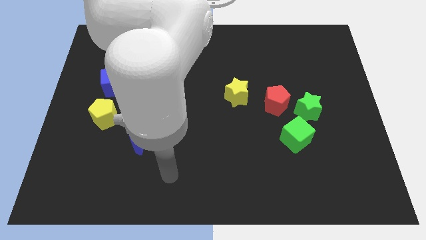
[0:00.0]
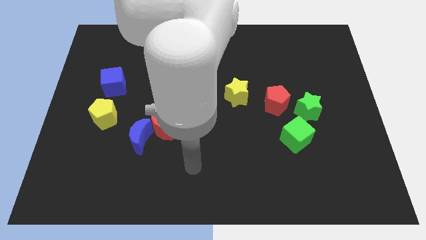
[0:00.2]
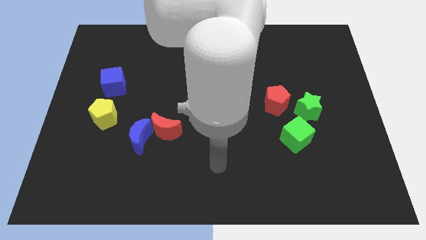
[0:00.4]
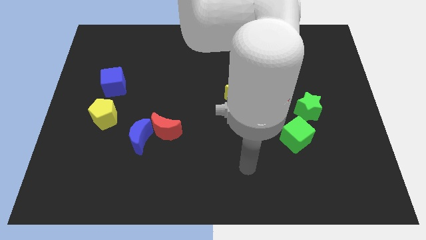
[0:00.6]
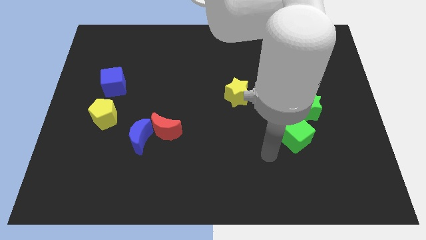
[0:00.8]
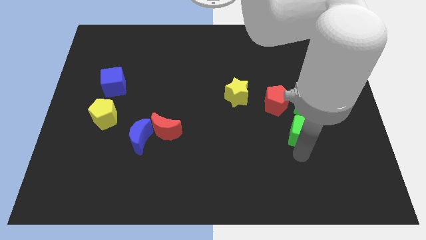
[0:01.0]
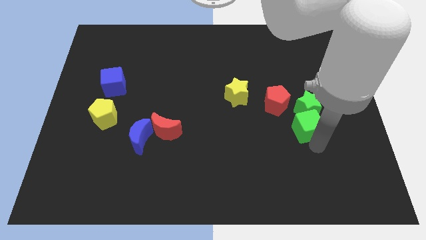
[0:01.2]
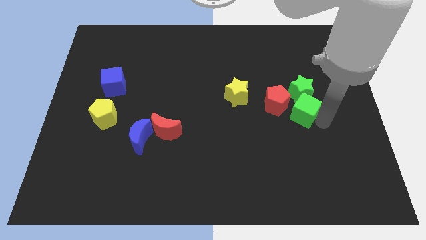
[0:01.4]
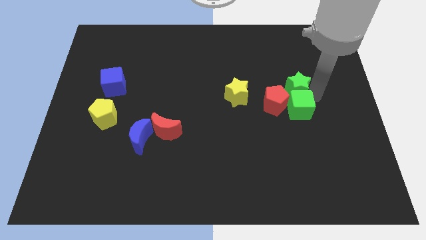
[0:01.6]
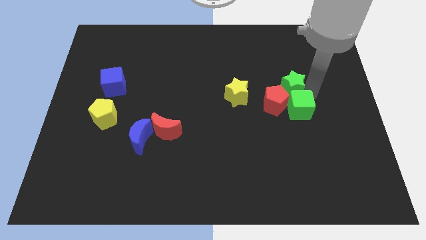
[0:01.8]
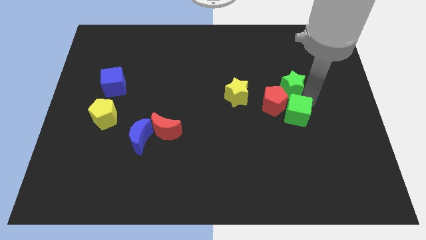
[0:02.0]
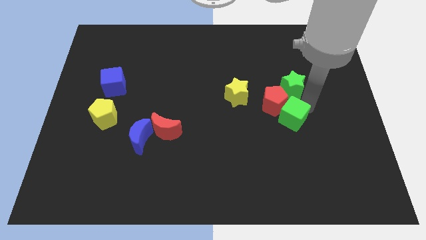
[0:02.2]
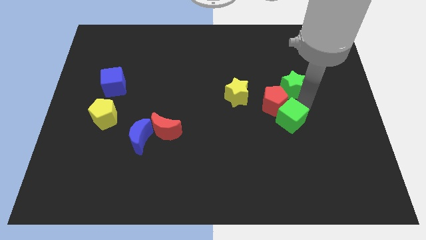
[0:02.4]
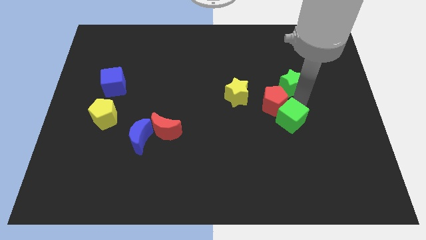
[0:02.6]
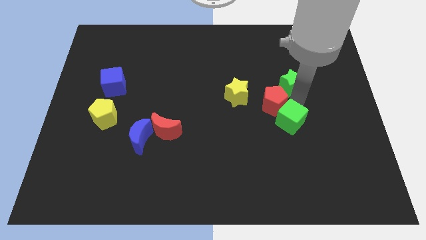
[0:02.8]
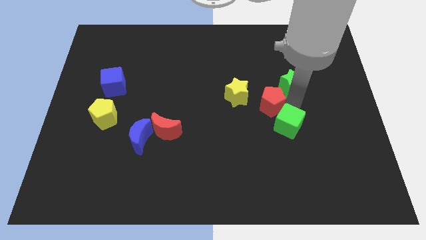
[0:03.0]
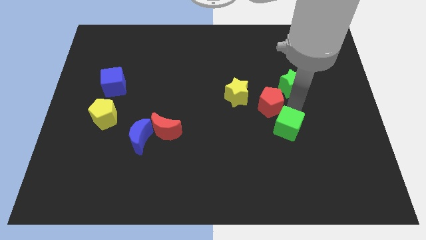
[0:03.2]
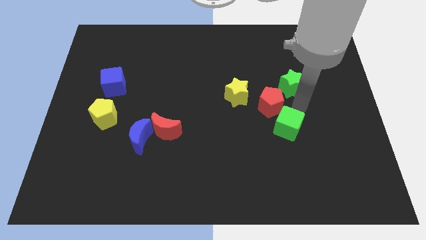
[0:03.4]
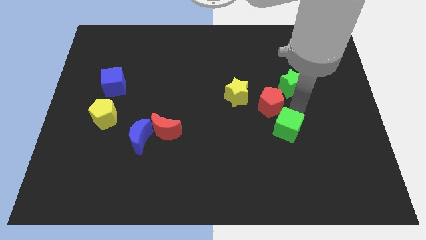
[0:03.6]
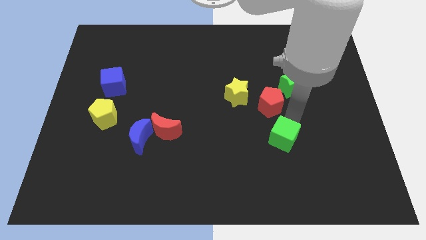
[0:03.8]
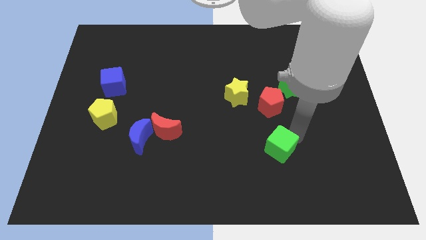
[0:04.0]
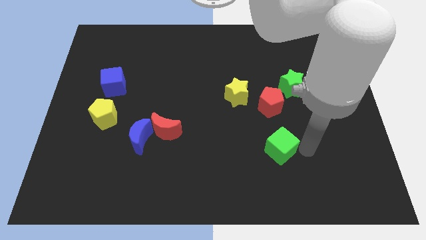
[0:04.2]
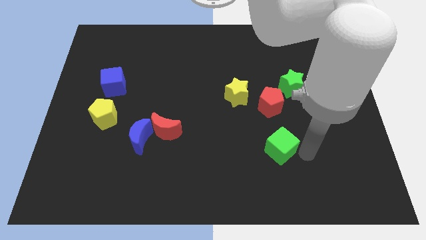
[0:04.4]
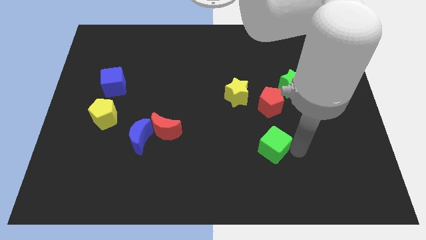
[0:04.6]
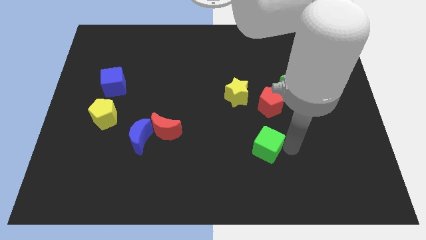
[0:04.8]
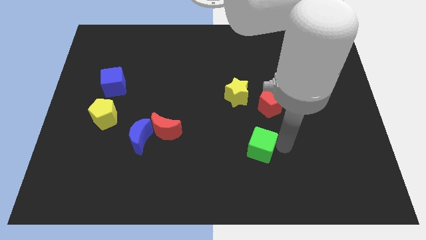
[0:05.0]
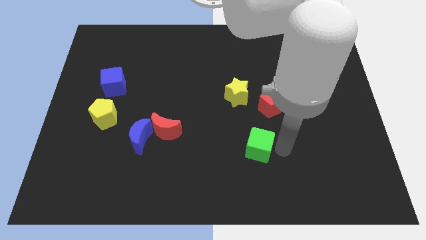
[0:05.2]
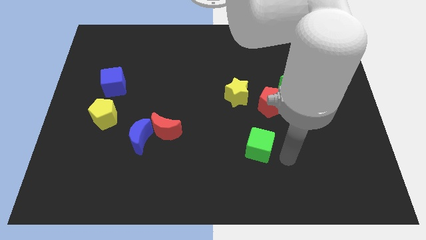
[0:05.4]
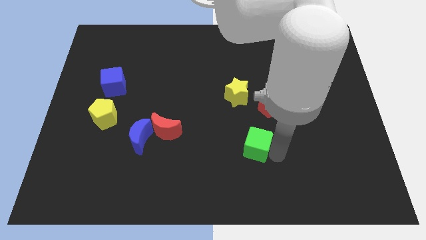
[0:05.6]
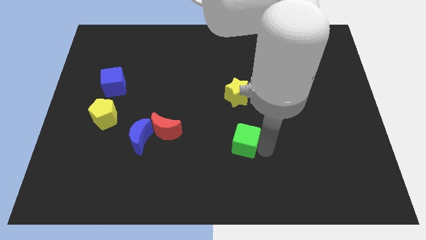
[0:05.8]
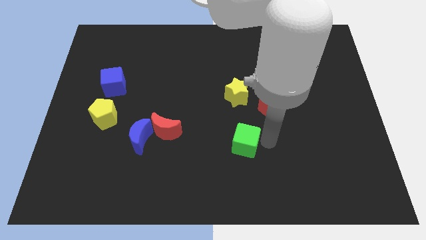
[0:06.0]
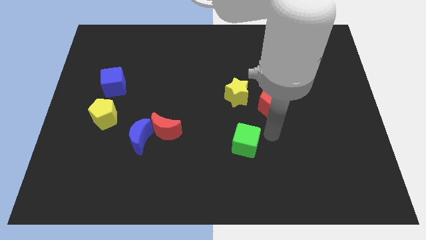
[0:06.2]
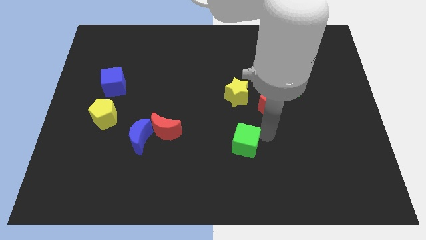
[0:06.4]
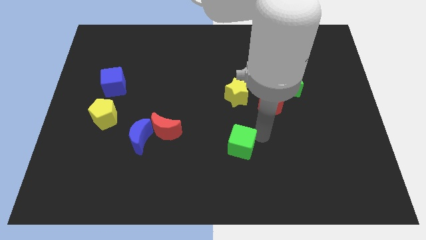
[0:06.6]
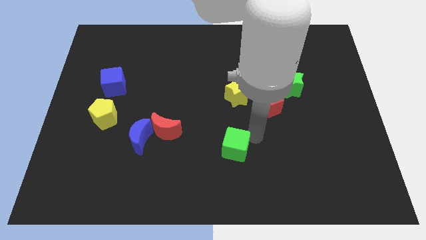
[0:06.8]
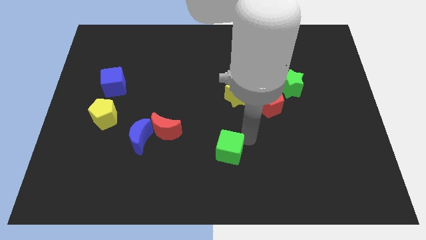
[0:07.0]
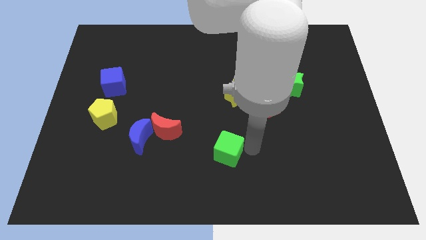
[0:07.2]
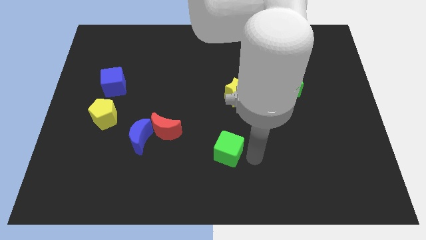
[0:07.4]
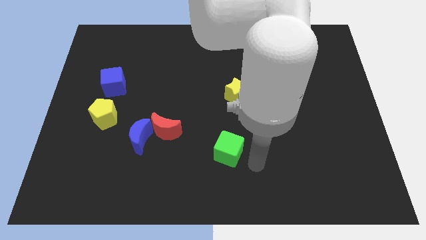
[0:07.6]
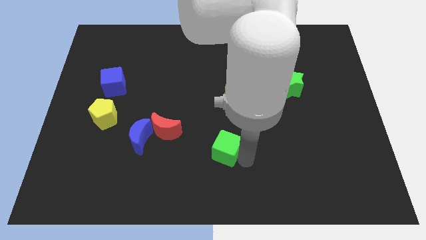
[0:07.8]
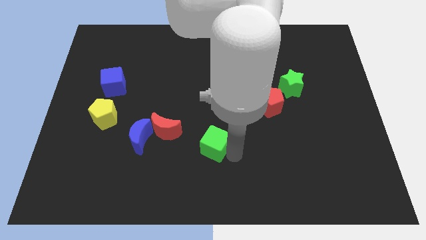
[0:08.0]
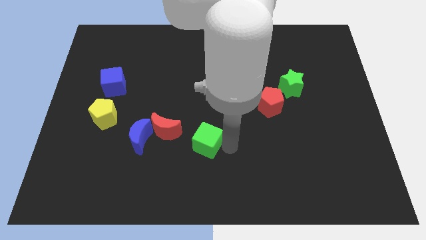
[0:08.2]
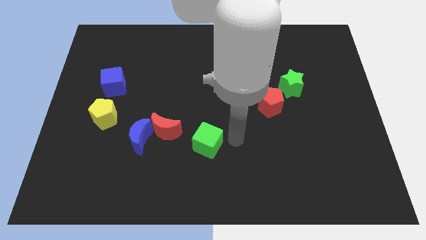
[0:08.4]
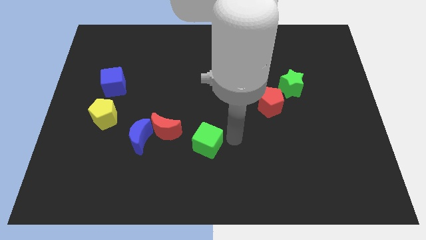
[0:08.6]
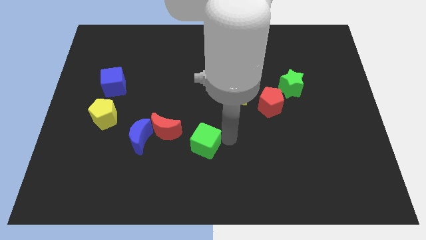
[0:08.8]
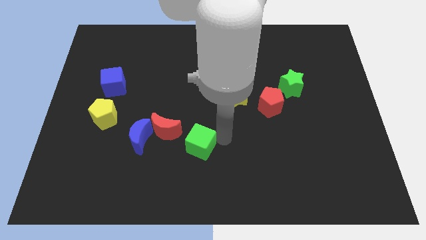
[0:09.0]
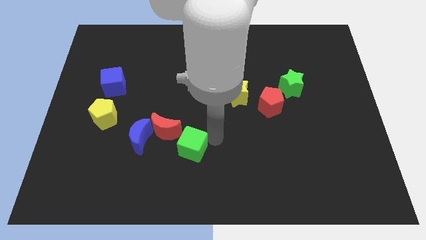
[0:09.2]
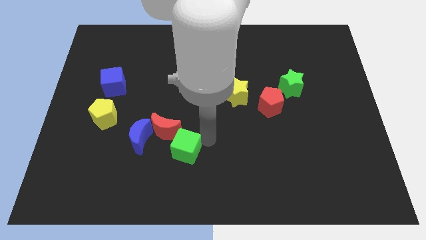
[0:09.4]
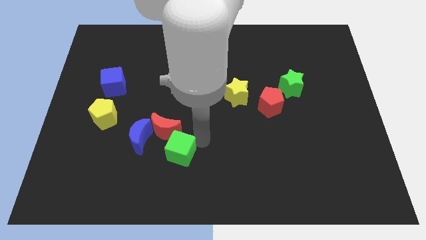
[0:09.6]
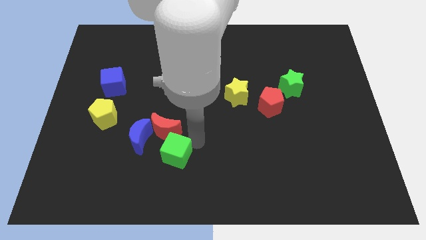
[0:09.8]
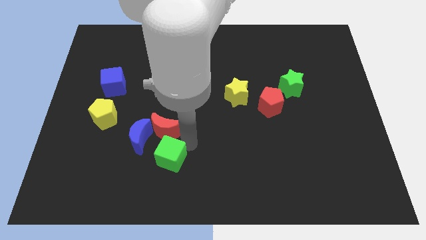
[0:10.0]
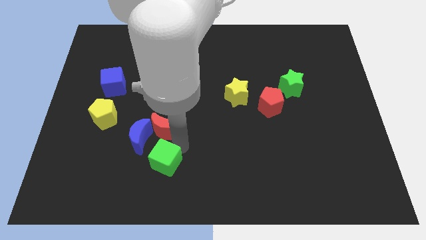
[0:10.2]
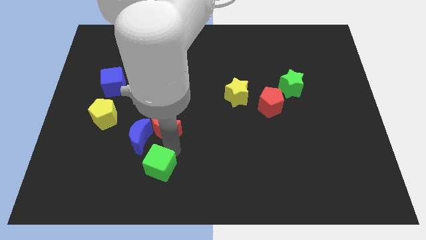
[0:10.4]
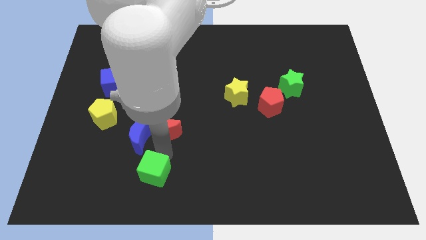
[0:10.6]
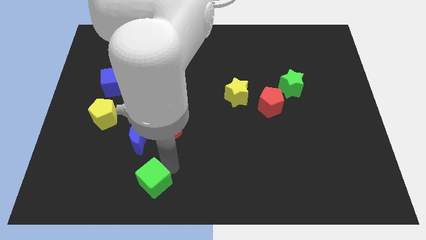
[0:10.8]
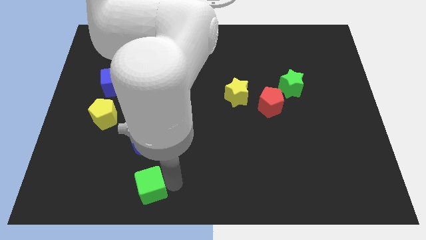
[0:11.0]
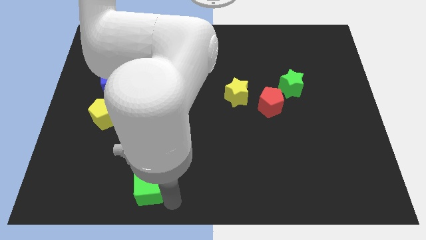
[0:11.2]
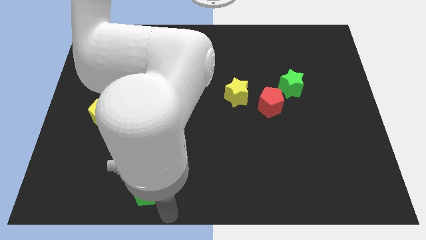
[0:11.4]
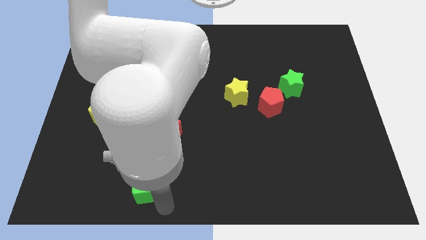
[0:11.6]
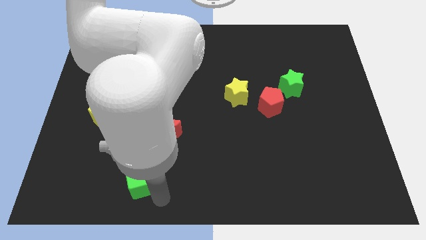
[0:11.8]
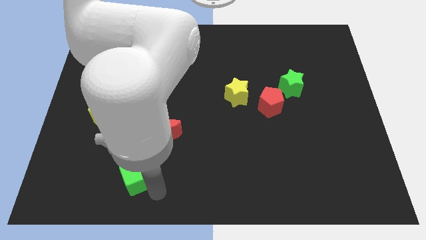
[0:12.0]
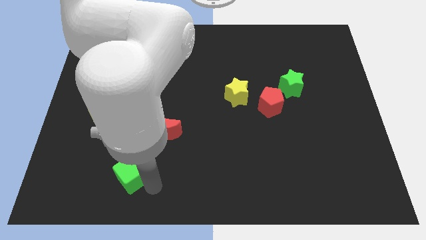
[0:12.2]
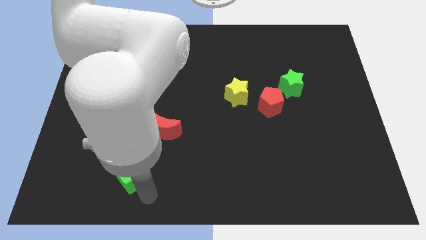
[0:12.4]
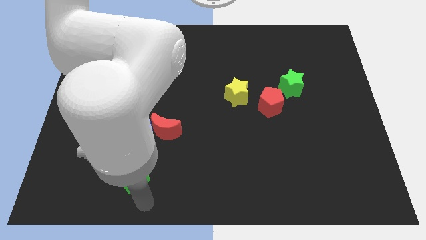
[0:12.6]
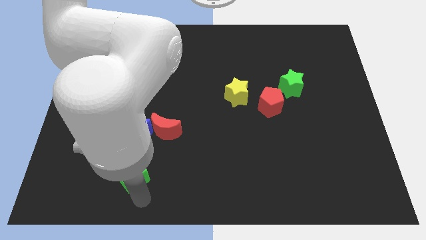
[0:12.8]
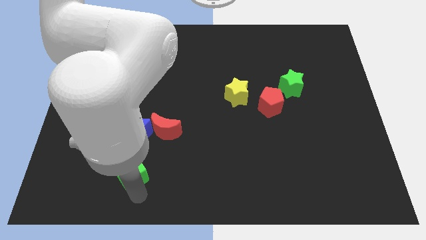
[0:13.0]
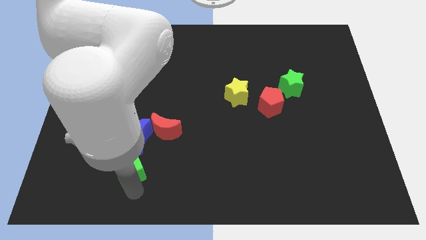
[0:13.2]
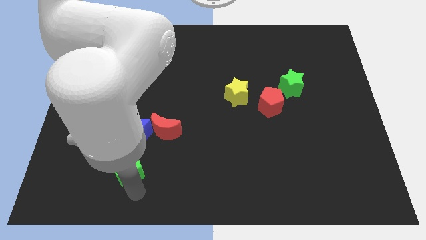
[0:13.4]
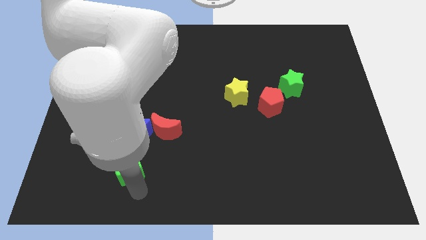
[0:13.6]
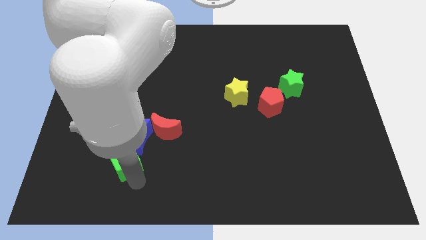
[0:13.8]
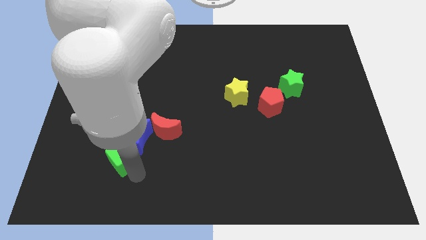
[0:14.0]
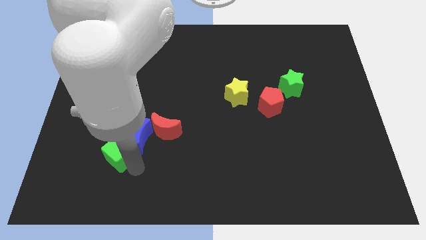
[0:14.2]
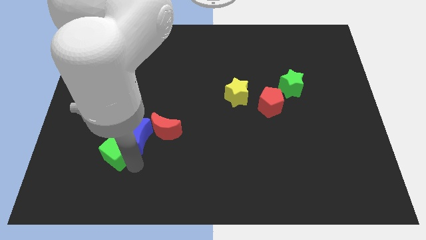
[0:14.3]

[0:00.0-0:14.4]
move the green cube to the bottom side of the yellow pentagon
